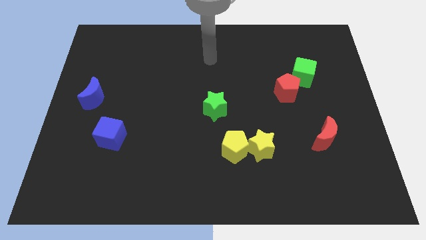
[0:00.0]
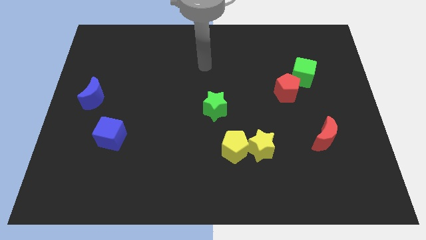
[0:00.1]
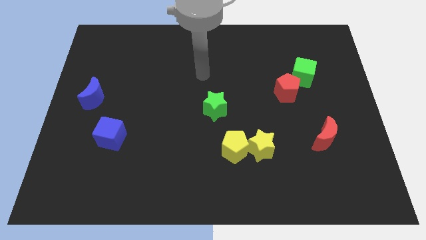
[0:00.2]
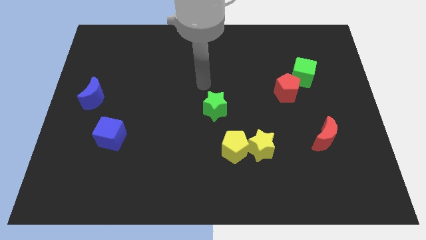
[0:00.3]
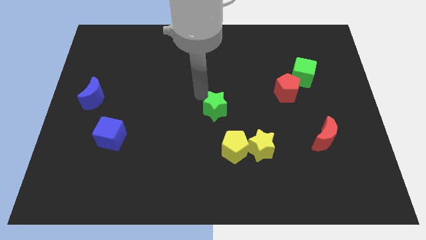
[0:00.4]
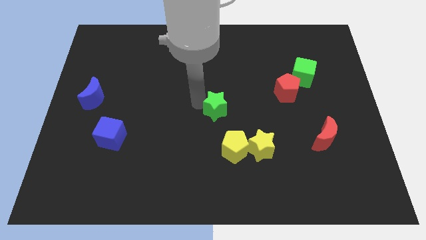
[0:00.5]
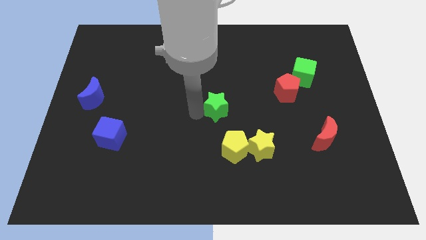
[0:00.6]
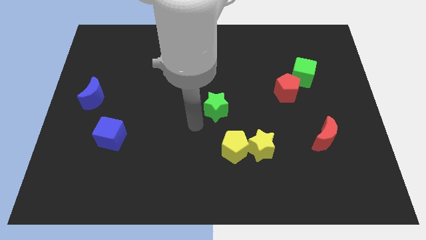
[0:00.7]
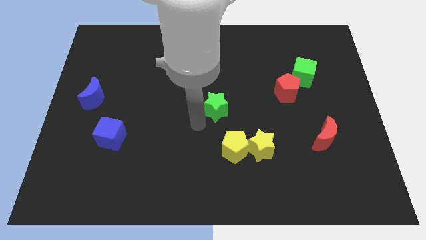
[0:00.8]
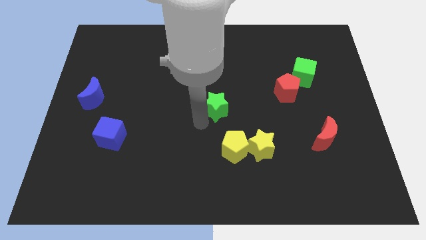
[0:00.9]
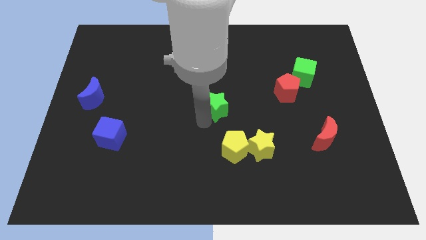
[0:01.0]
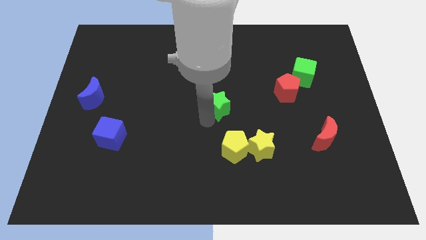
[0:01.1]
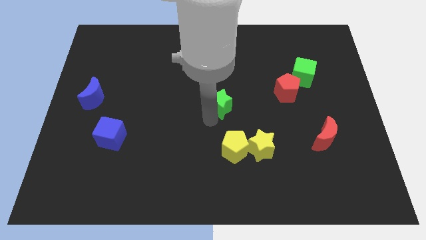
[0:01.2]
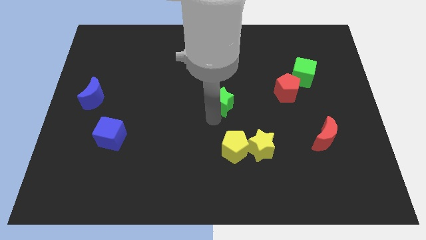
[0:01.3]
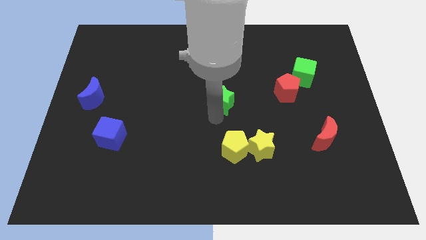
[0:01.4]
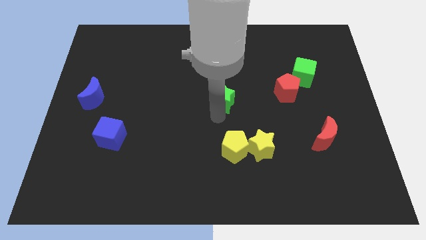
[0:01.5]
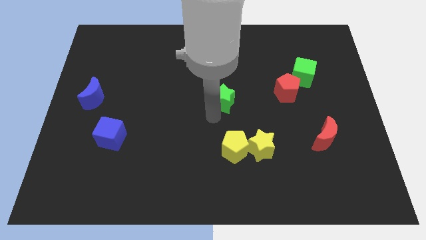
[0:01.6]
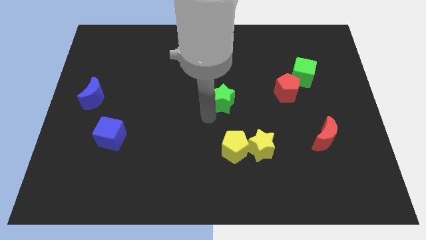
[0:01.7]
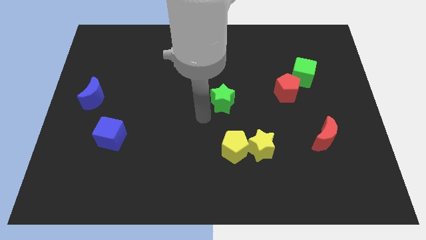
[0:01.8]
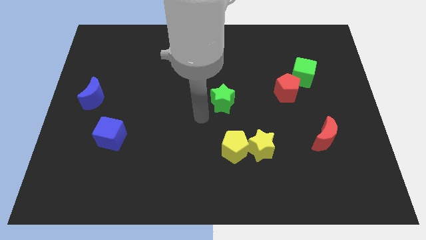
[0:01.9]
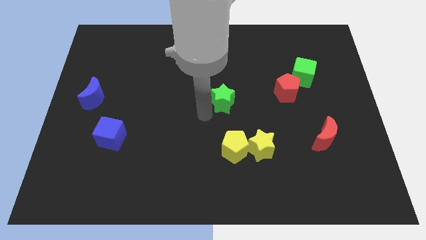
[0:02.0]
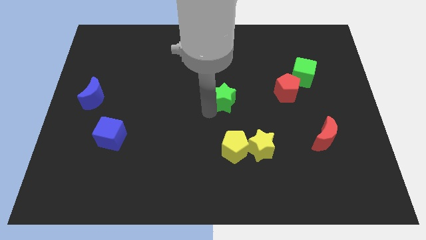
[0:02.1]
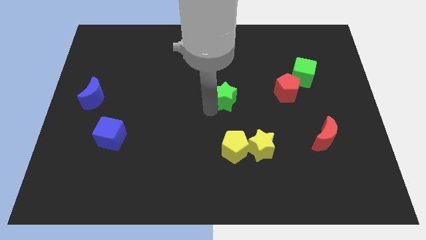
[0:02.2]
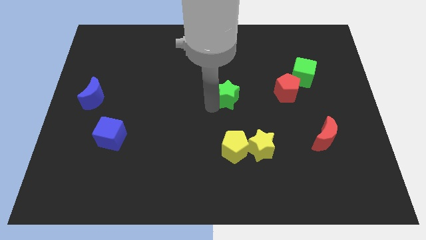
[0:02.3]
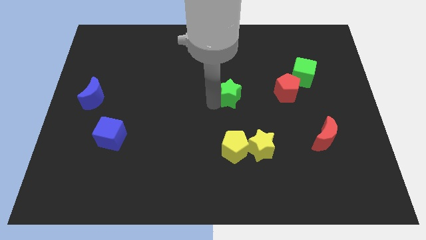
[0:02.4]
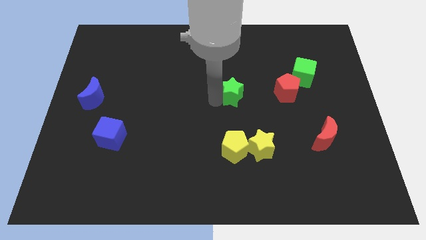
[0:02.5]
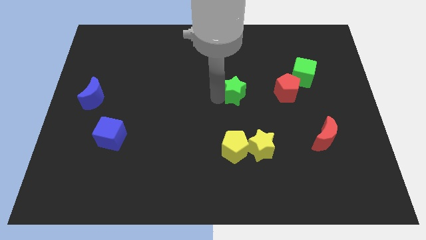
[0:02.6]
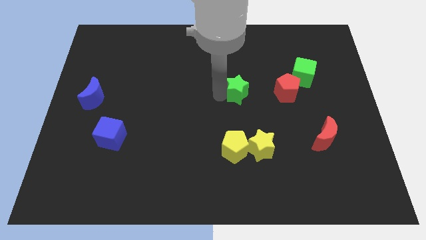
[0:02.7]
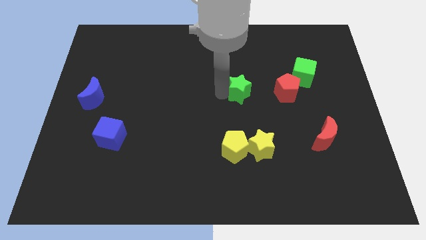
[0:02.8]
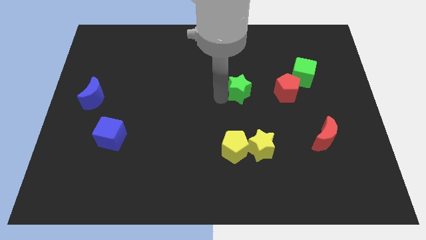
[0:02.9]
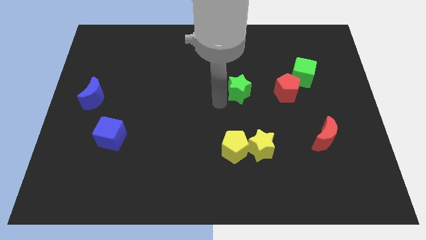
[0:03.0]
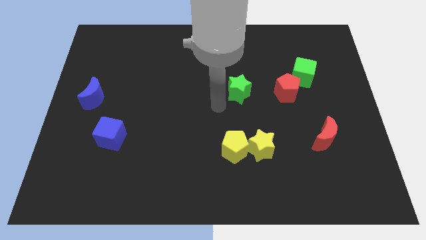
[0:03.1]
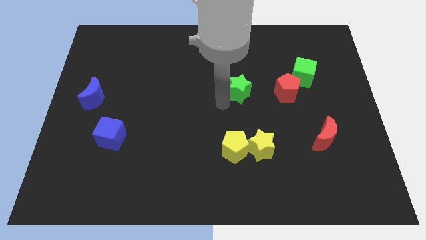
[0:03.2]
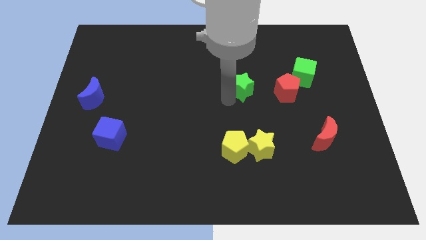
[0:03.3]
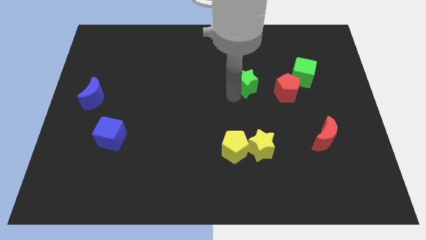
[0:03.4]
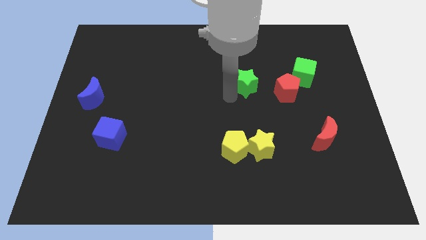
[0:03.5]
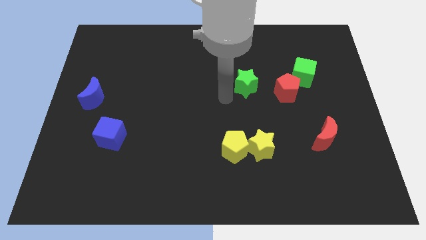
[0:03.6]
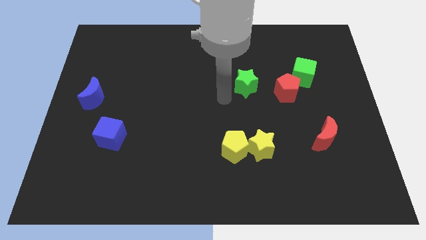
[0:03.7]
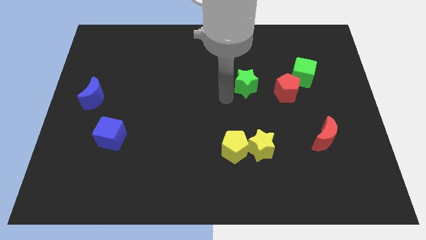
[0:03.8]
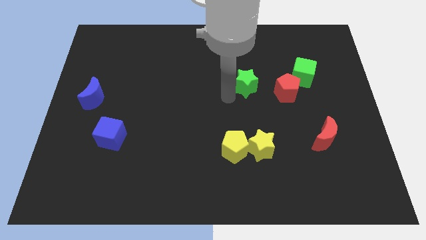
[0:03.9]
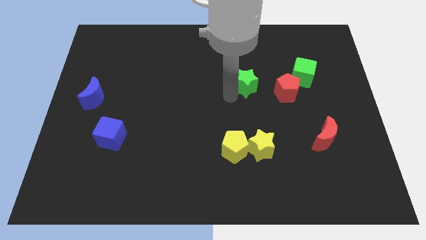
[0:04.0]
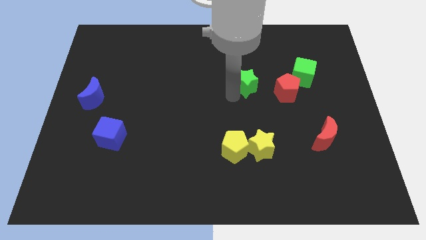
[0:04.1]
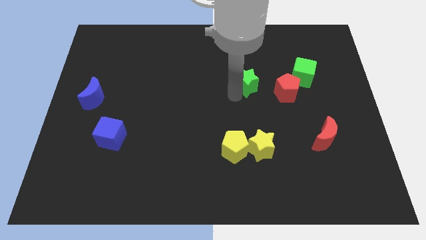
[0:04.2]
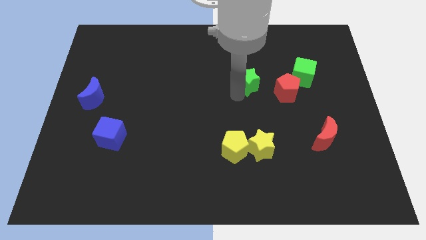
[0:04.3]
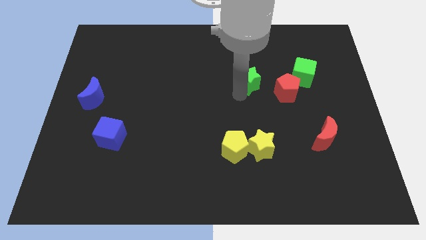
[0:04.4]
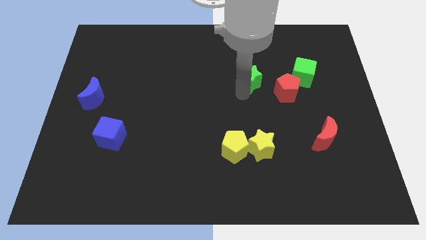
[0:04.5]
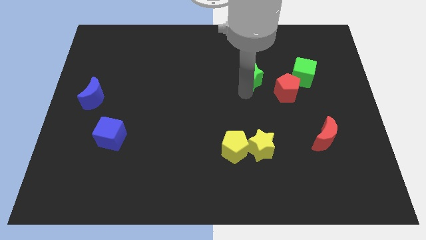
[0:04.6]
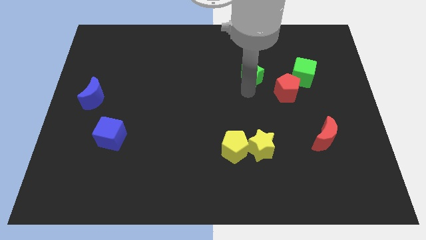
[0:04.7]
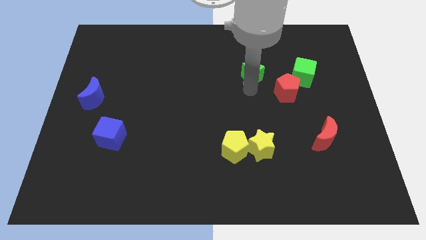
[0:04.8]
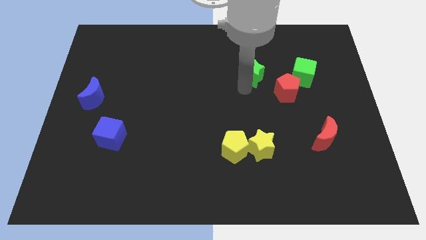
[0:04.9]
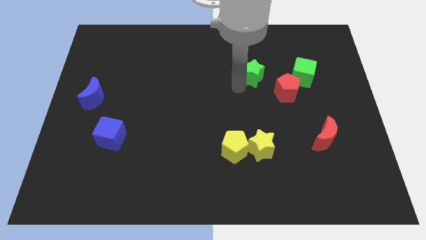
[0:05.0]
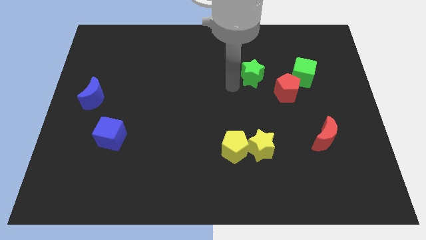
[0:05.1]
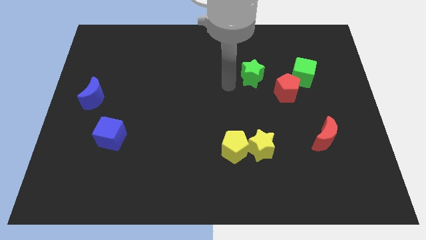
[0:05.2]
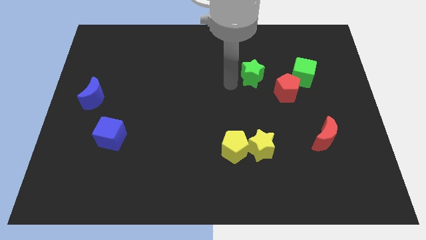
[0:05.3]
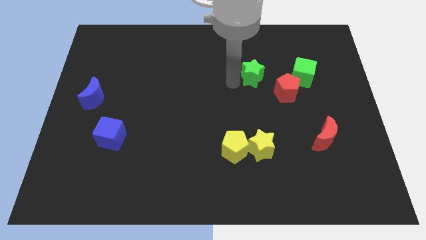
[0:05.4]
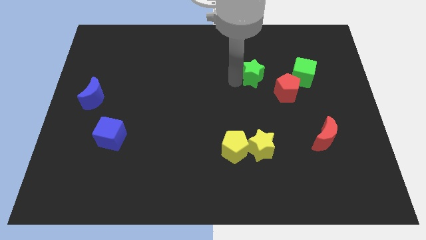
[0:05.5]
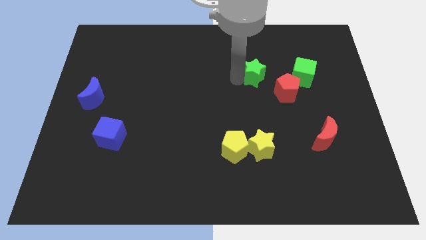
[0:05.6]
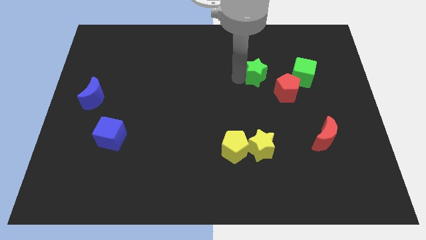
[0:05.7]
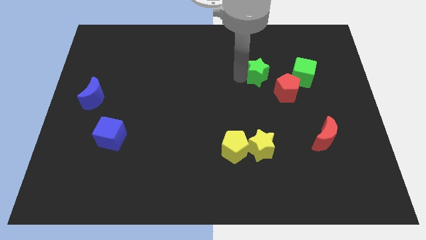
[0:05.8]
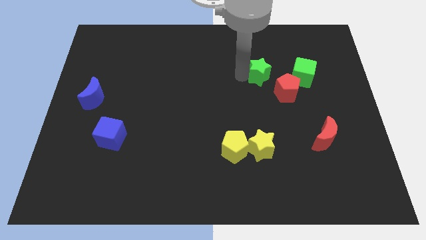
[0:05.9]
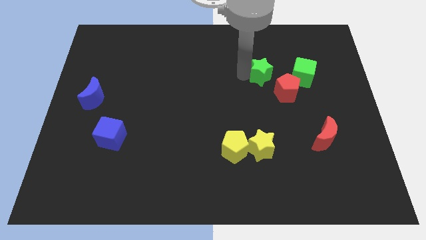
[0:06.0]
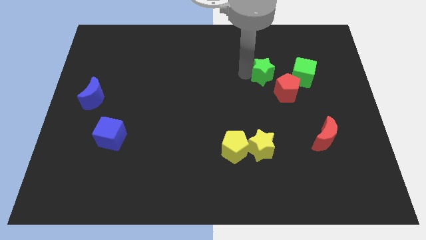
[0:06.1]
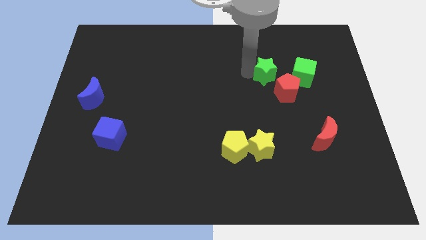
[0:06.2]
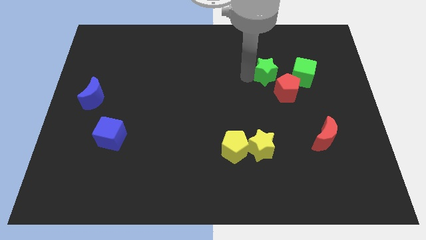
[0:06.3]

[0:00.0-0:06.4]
slide the green star to the top of the red pentagon

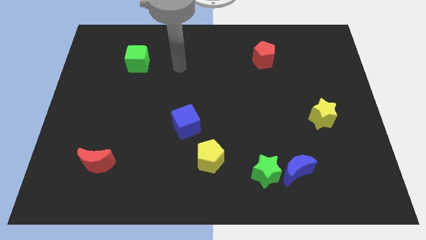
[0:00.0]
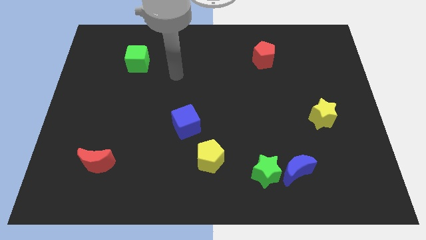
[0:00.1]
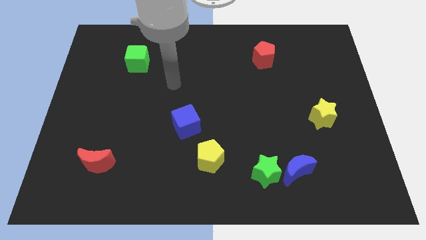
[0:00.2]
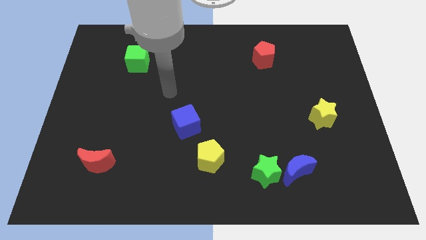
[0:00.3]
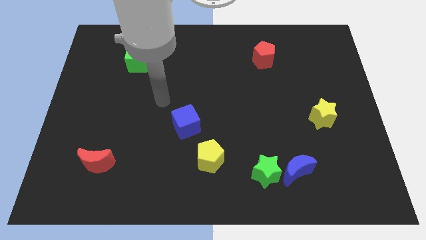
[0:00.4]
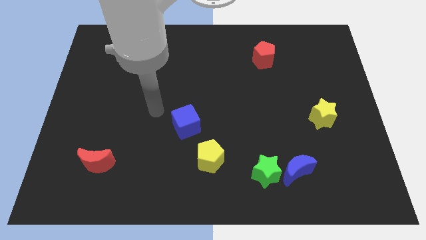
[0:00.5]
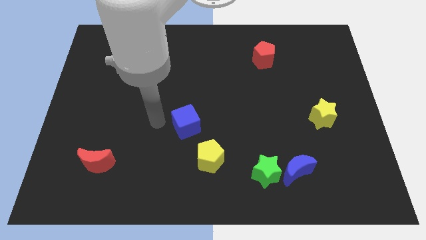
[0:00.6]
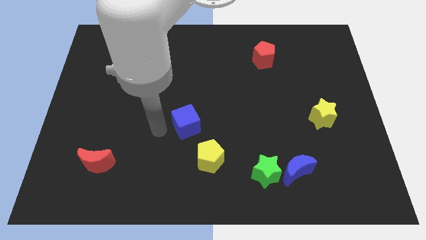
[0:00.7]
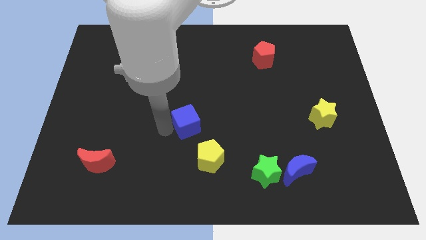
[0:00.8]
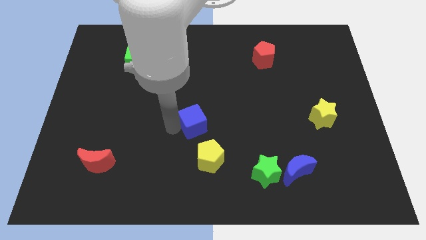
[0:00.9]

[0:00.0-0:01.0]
slide the blue cube to the top of the yellow pentagon
